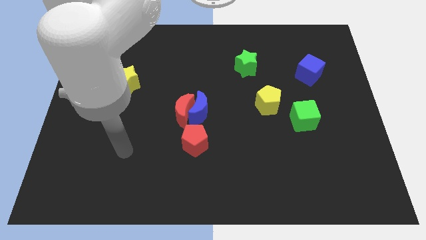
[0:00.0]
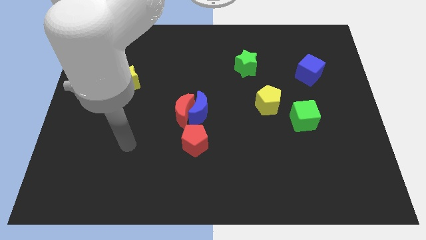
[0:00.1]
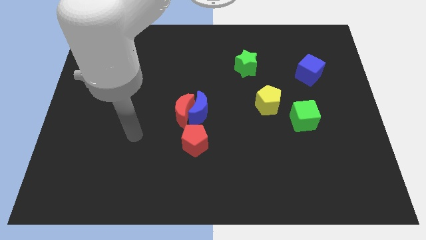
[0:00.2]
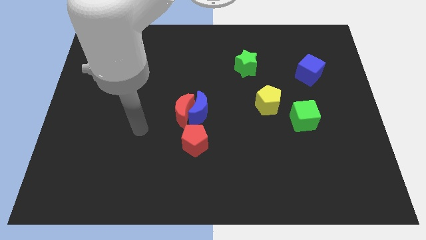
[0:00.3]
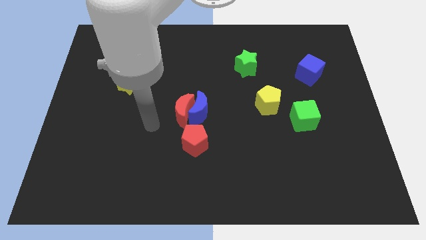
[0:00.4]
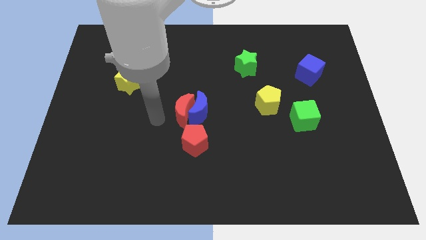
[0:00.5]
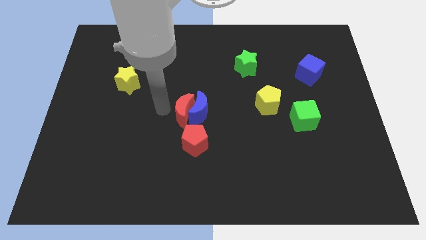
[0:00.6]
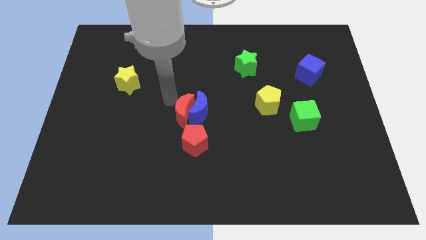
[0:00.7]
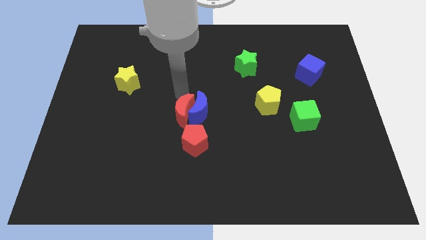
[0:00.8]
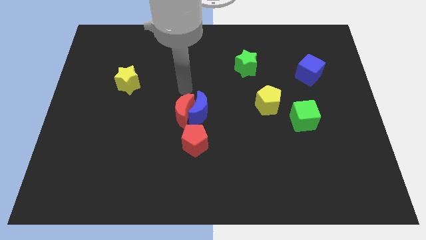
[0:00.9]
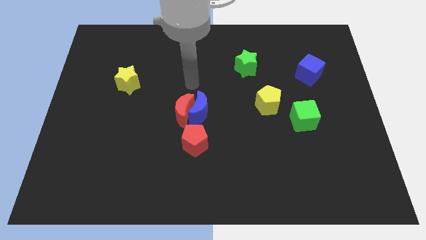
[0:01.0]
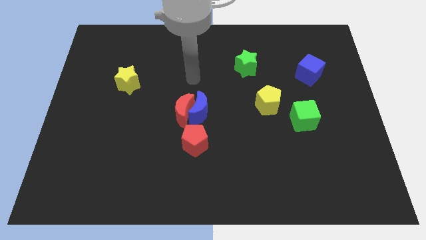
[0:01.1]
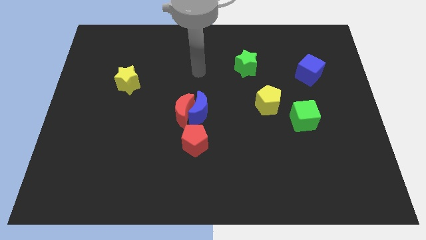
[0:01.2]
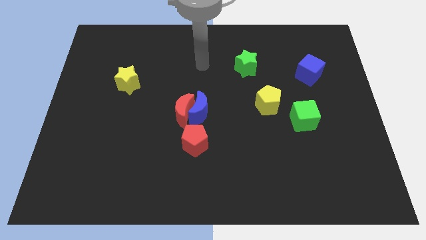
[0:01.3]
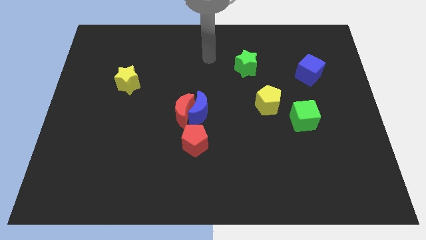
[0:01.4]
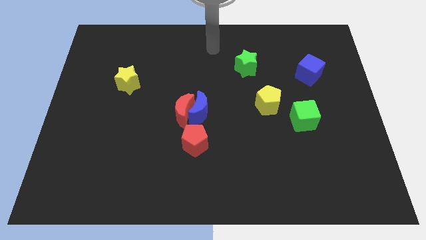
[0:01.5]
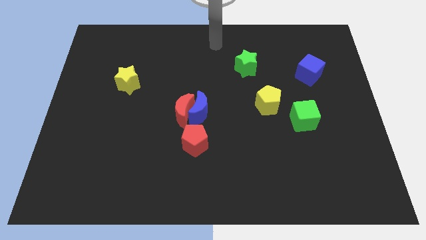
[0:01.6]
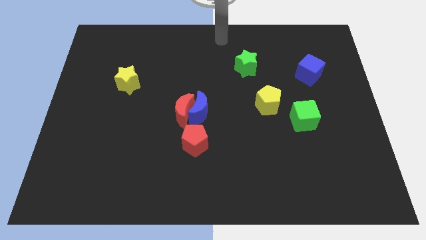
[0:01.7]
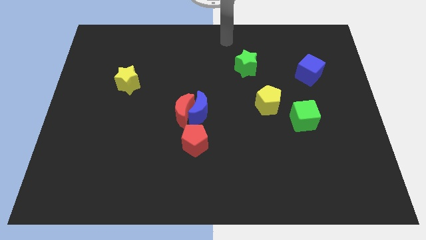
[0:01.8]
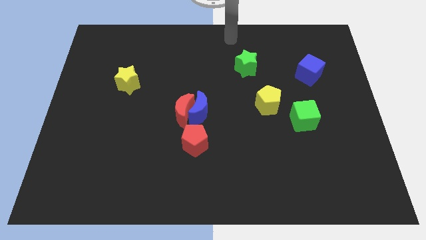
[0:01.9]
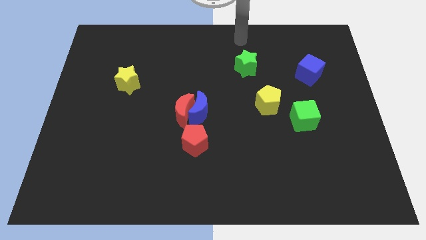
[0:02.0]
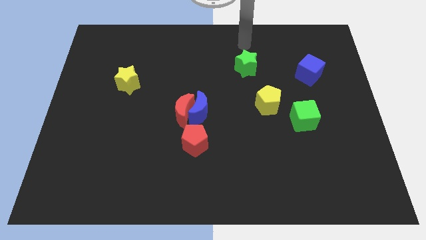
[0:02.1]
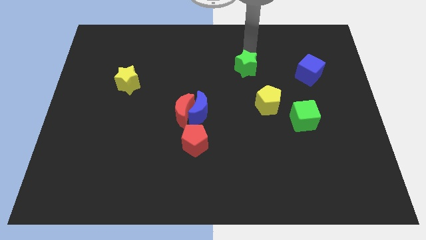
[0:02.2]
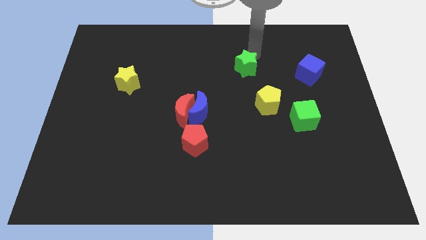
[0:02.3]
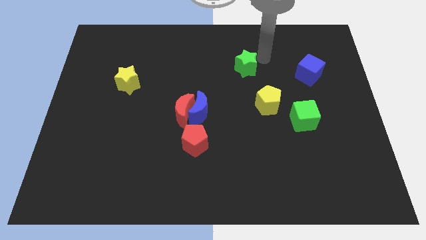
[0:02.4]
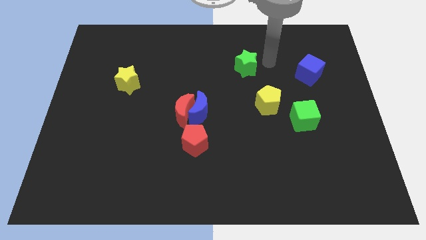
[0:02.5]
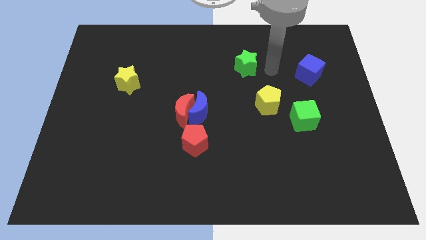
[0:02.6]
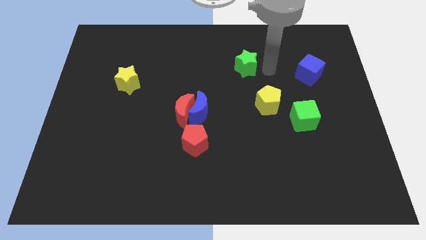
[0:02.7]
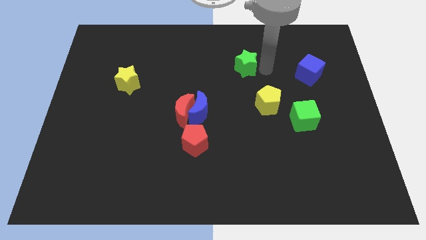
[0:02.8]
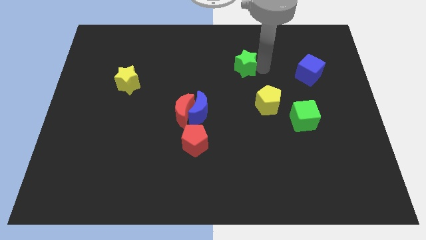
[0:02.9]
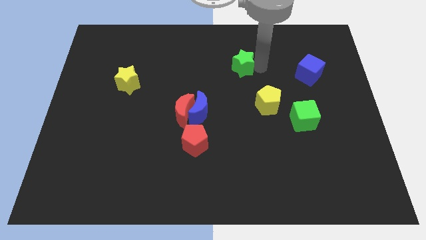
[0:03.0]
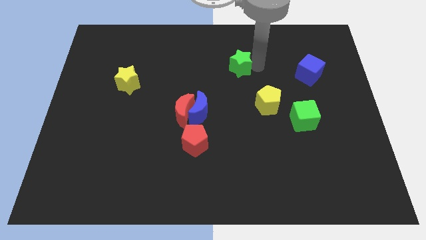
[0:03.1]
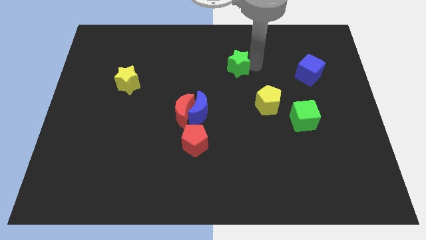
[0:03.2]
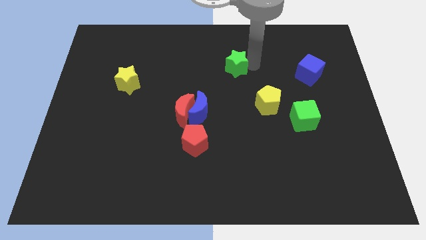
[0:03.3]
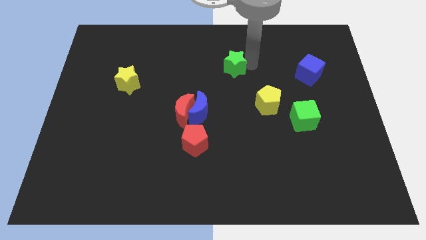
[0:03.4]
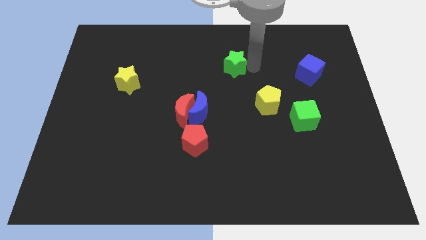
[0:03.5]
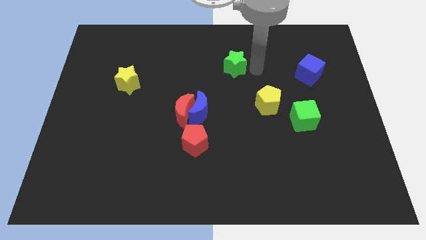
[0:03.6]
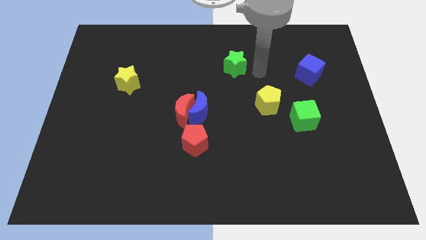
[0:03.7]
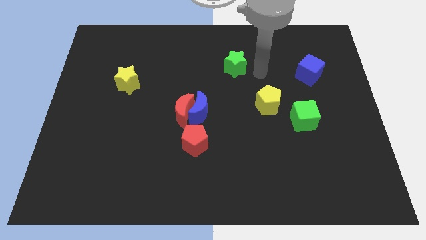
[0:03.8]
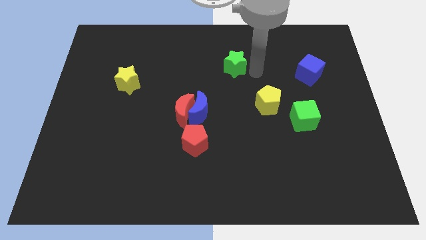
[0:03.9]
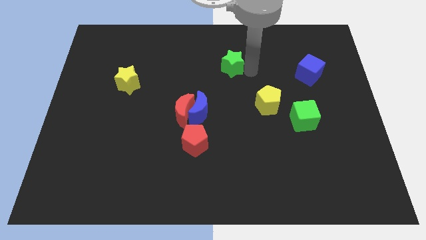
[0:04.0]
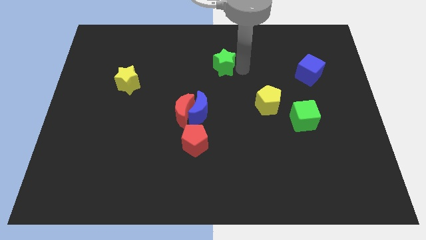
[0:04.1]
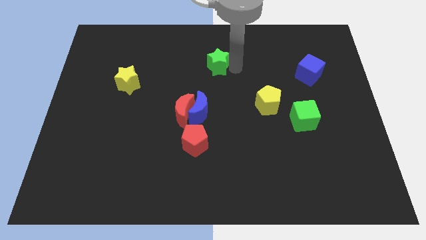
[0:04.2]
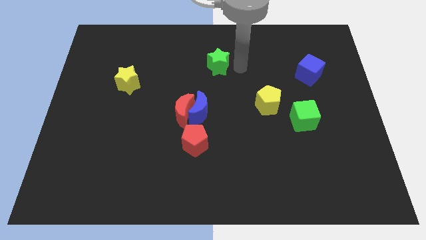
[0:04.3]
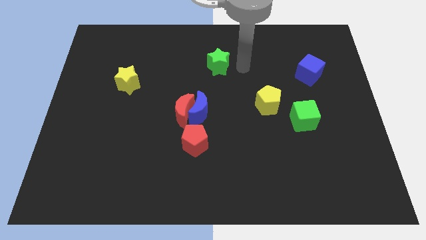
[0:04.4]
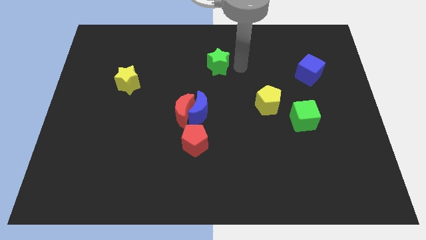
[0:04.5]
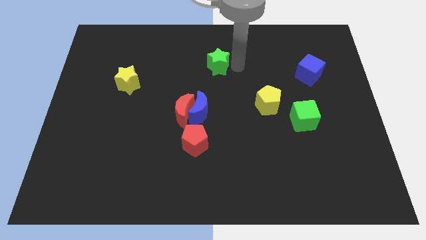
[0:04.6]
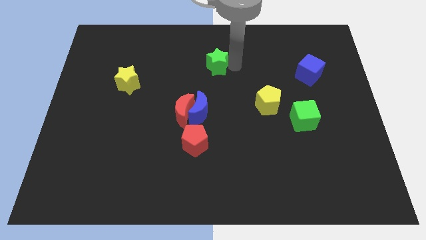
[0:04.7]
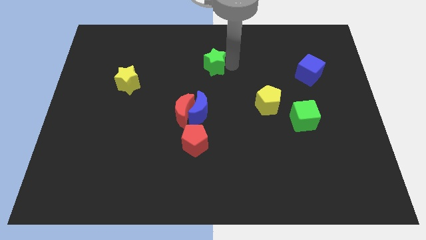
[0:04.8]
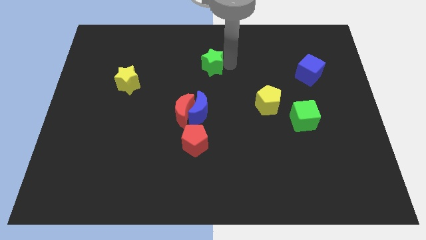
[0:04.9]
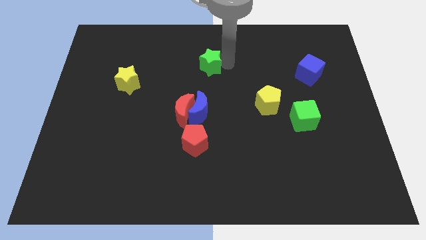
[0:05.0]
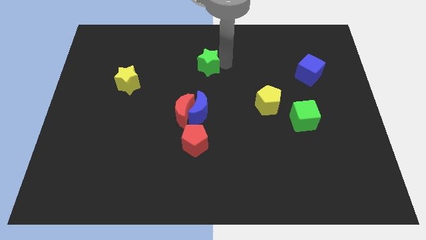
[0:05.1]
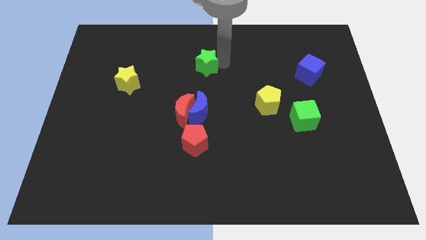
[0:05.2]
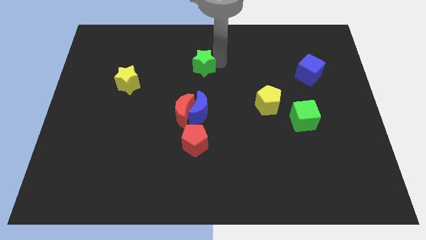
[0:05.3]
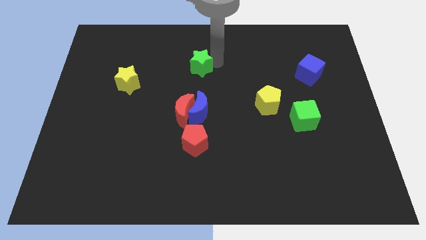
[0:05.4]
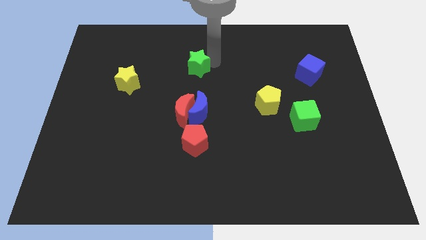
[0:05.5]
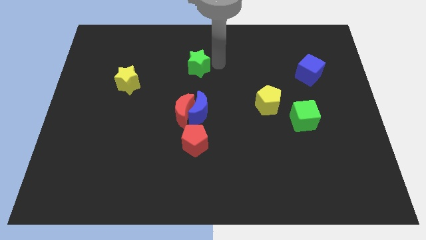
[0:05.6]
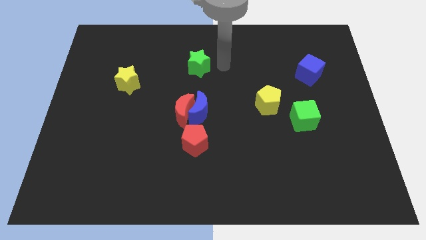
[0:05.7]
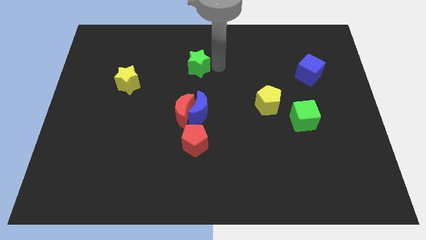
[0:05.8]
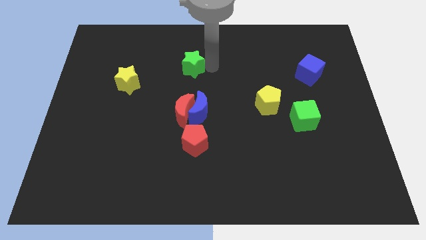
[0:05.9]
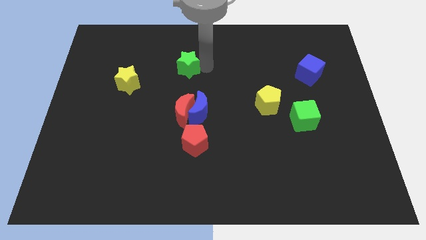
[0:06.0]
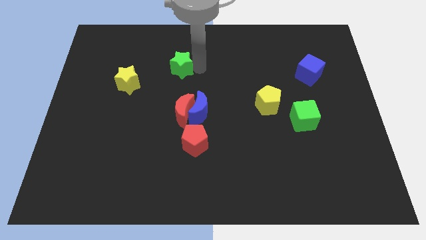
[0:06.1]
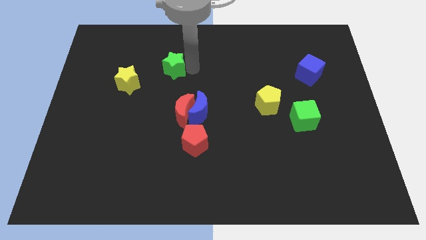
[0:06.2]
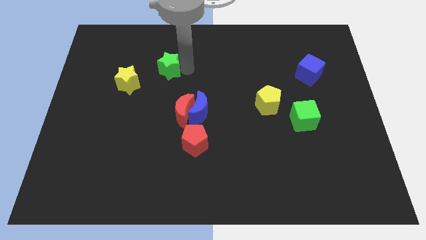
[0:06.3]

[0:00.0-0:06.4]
move the green star left

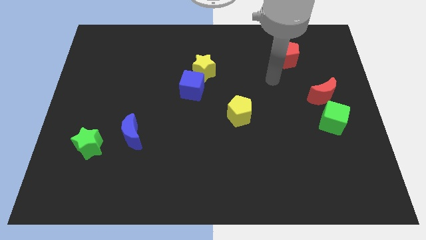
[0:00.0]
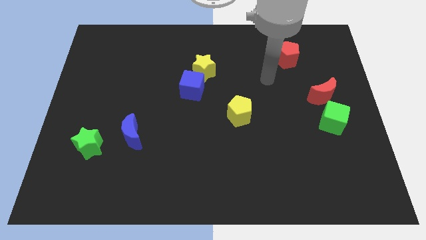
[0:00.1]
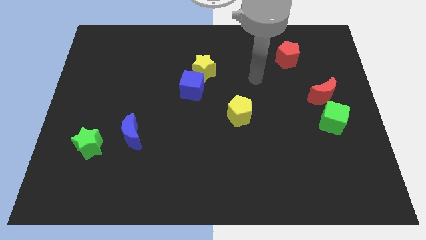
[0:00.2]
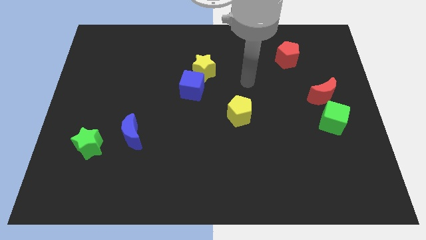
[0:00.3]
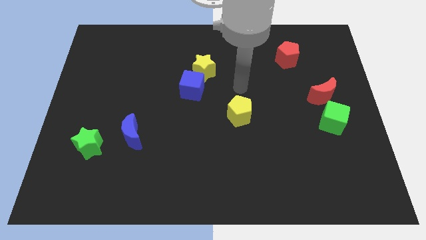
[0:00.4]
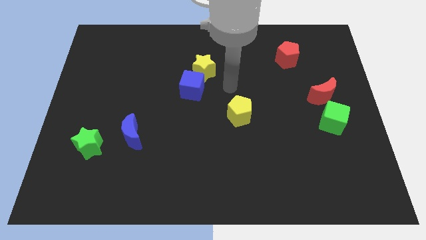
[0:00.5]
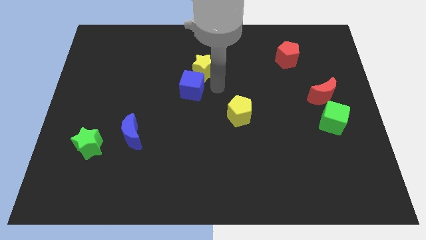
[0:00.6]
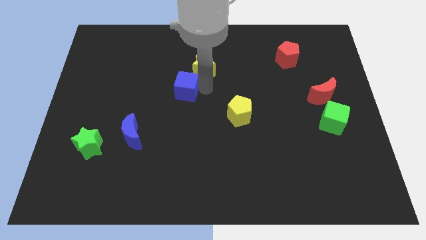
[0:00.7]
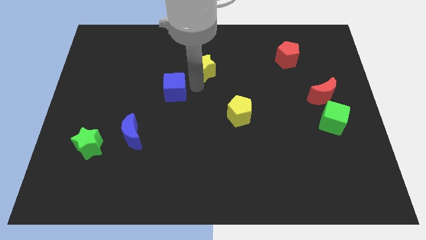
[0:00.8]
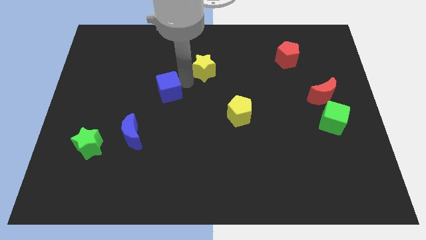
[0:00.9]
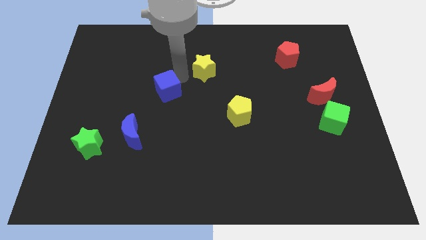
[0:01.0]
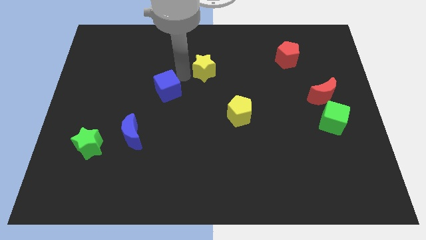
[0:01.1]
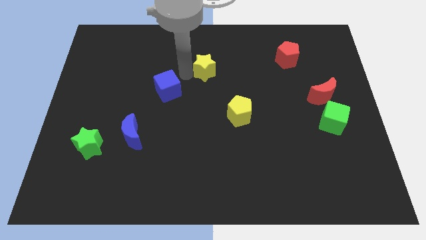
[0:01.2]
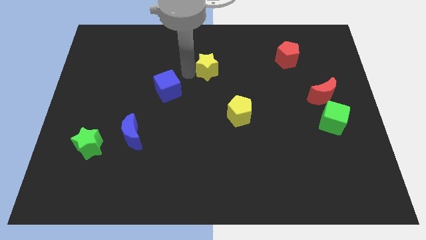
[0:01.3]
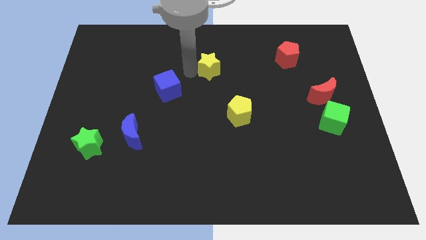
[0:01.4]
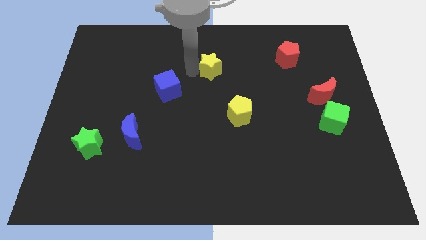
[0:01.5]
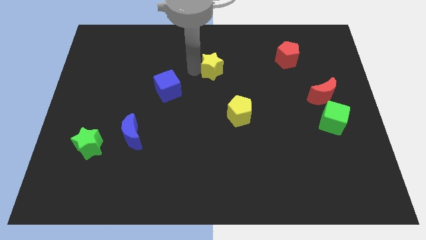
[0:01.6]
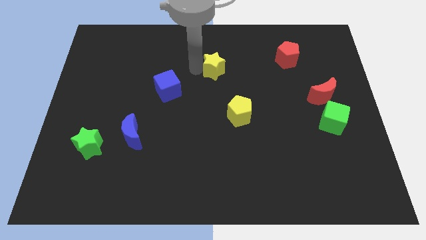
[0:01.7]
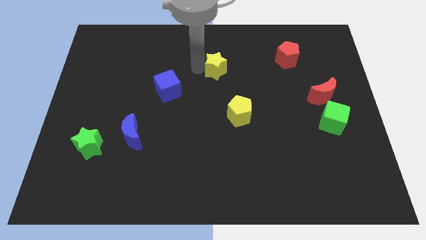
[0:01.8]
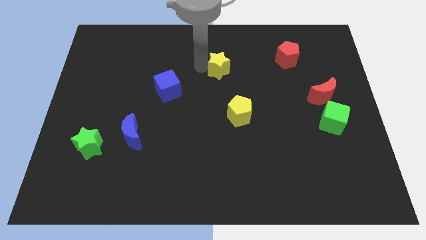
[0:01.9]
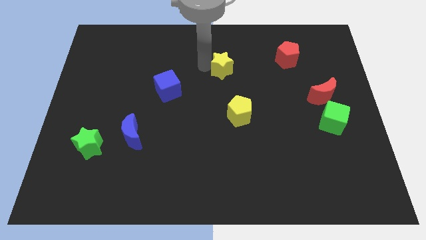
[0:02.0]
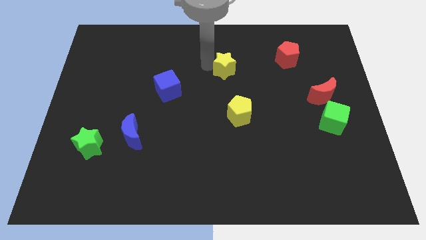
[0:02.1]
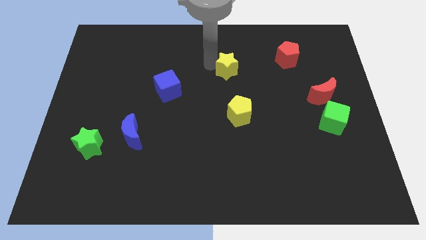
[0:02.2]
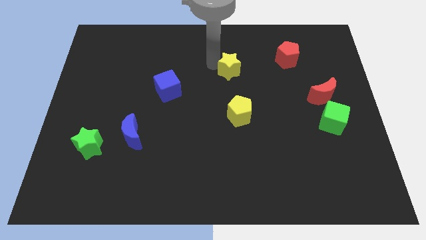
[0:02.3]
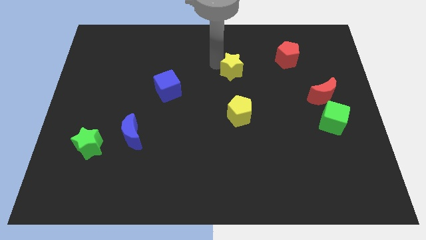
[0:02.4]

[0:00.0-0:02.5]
move the yellow star right a little
